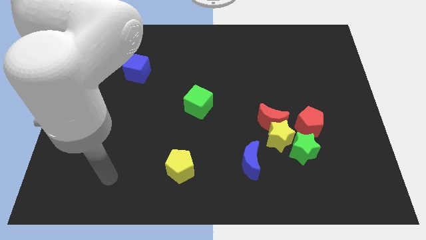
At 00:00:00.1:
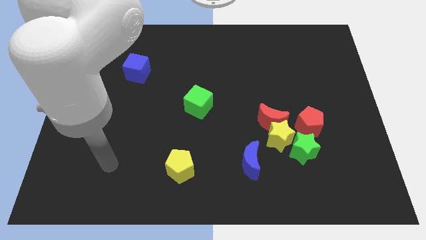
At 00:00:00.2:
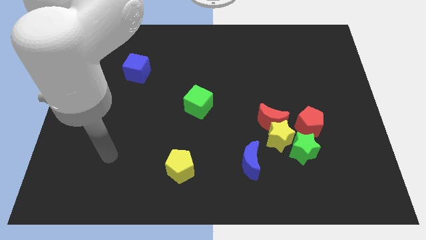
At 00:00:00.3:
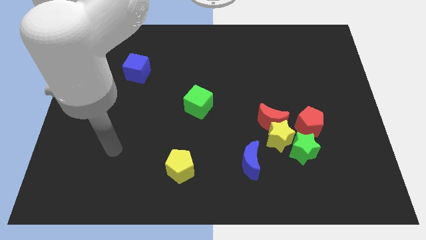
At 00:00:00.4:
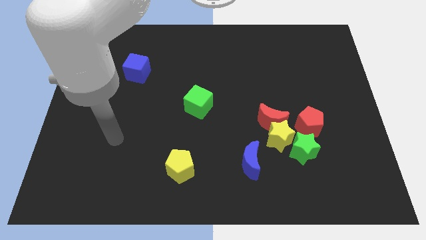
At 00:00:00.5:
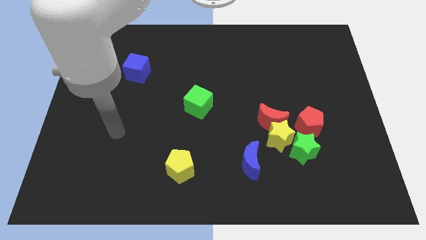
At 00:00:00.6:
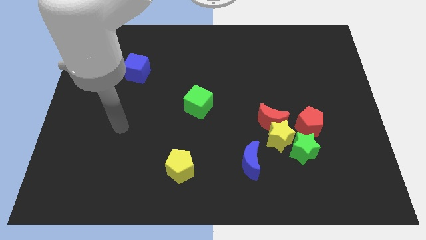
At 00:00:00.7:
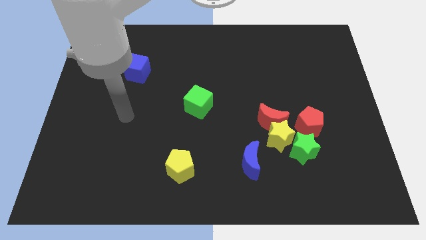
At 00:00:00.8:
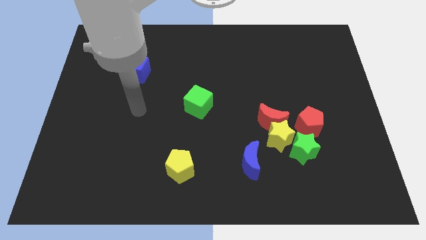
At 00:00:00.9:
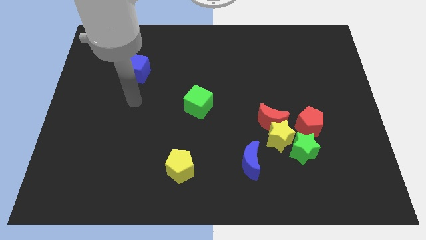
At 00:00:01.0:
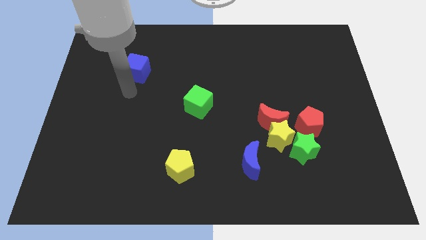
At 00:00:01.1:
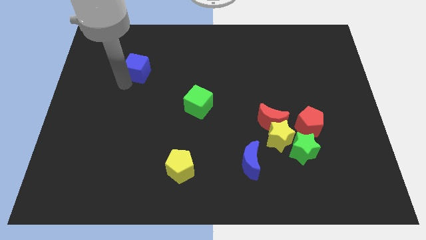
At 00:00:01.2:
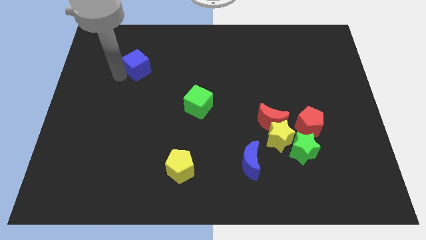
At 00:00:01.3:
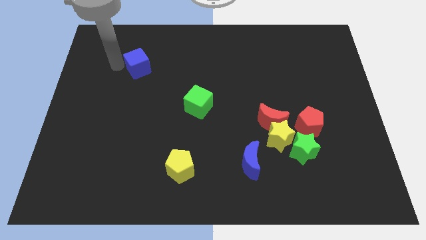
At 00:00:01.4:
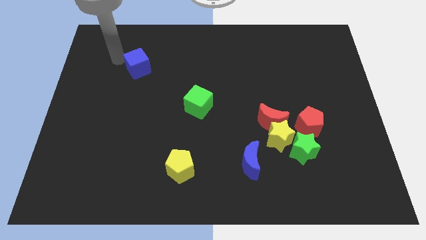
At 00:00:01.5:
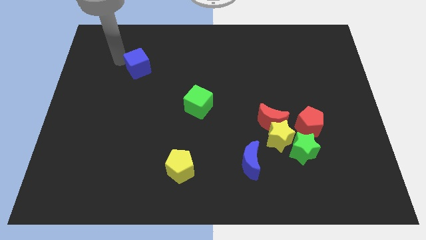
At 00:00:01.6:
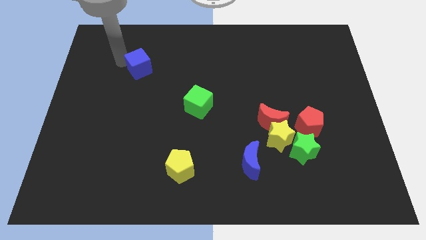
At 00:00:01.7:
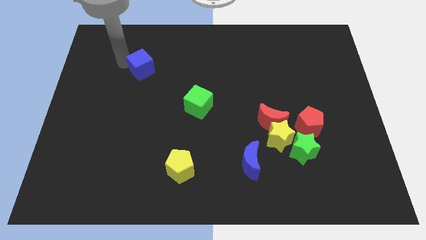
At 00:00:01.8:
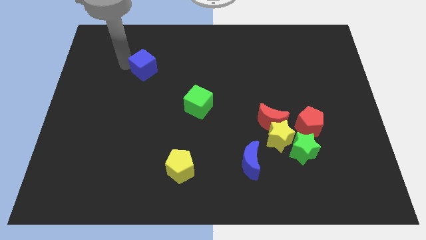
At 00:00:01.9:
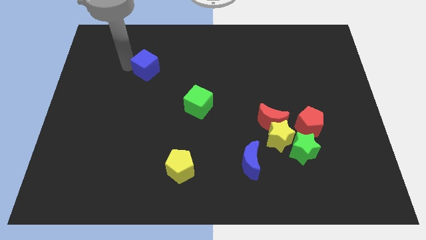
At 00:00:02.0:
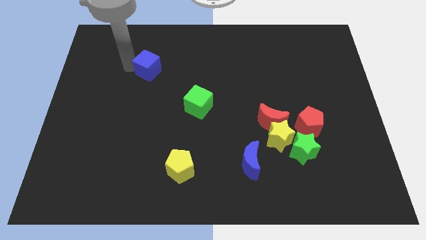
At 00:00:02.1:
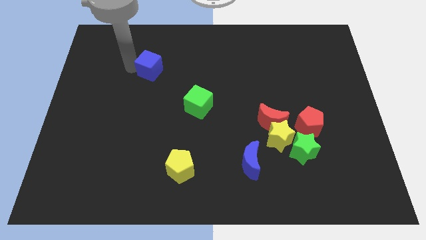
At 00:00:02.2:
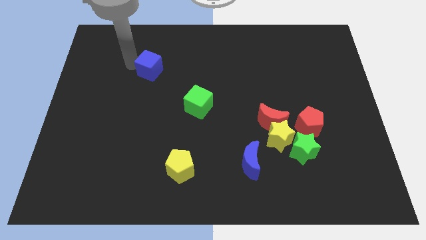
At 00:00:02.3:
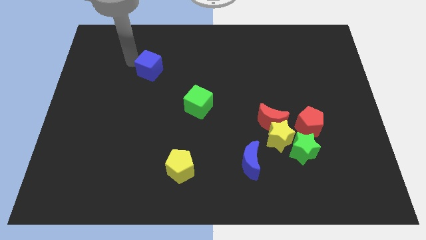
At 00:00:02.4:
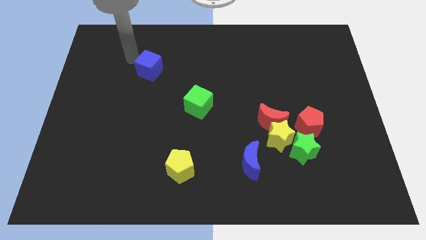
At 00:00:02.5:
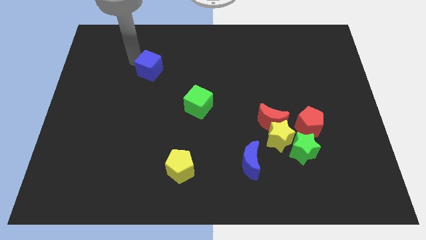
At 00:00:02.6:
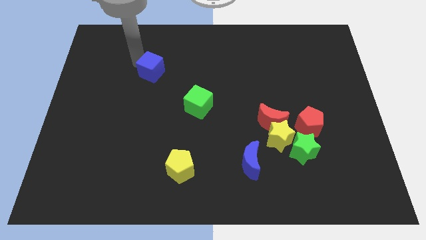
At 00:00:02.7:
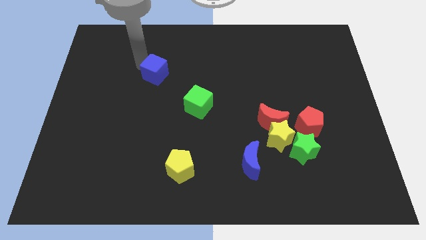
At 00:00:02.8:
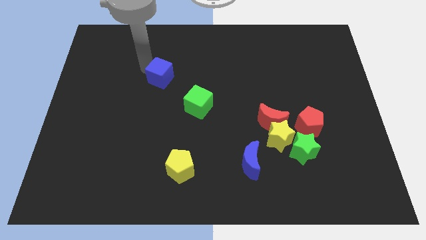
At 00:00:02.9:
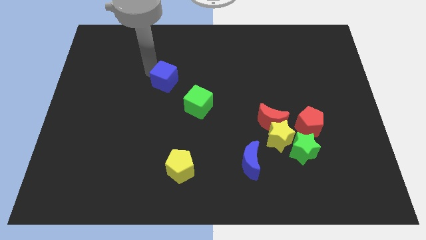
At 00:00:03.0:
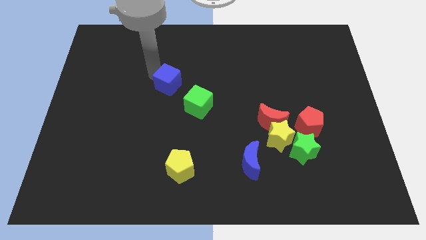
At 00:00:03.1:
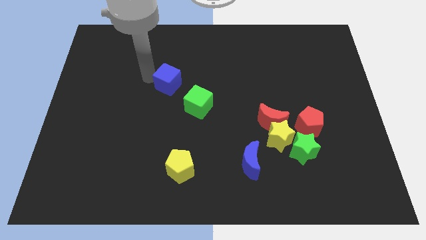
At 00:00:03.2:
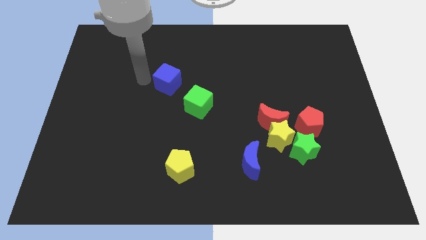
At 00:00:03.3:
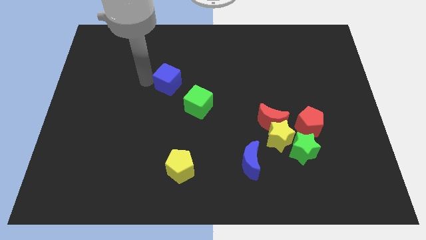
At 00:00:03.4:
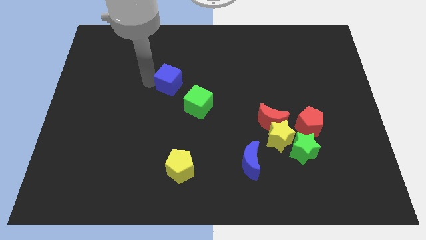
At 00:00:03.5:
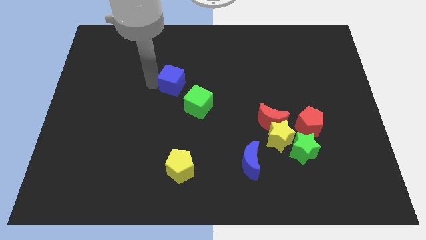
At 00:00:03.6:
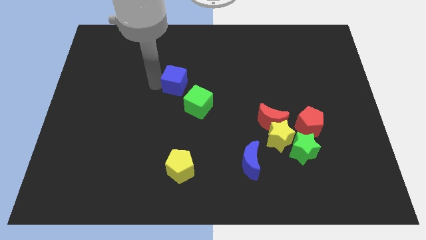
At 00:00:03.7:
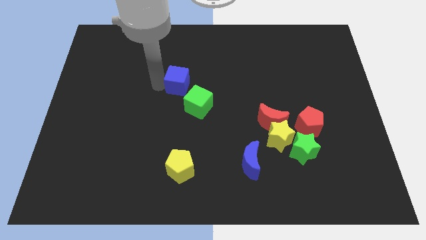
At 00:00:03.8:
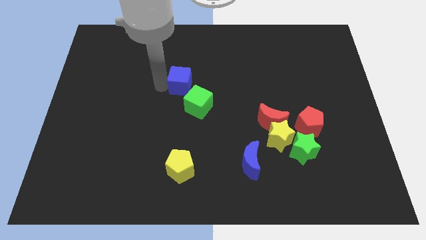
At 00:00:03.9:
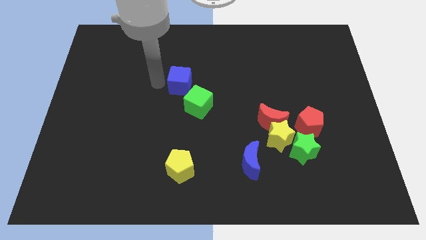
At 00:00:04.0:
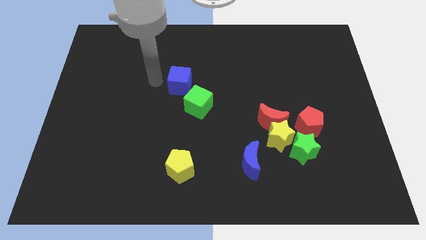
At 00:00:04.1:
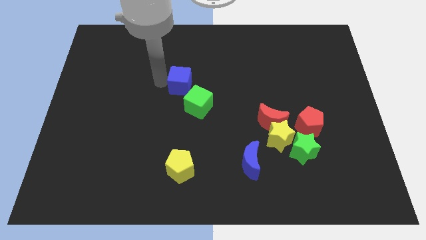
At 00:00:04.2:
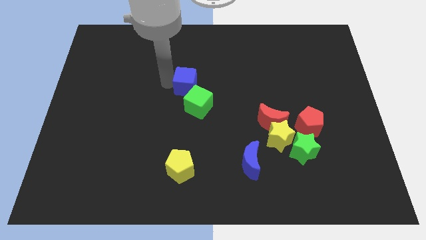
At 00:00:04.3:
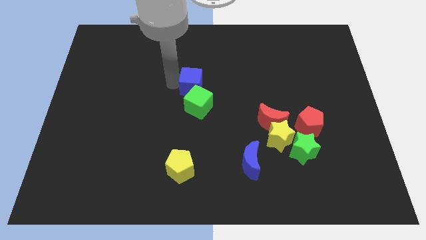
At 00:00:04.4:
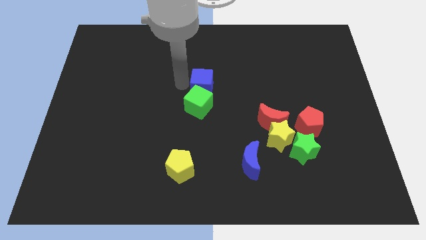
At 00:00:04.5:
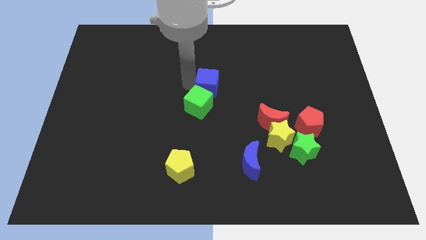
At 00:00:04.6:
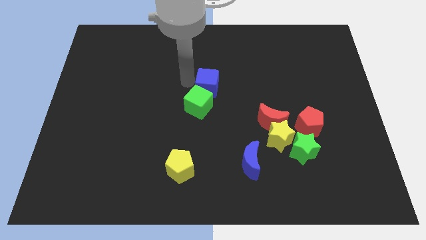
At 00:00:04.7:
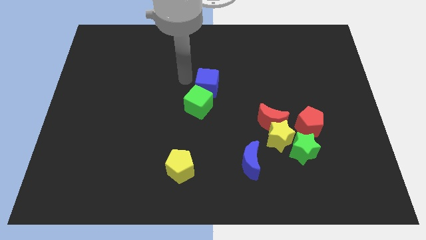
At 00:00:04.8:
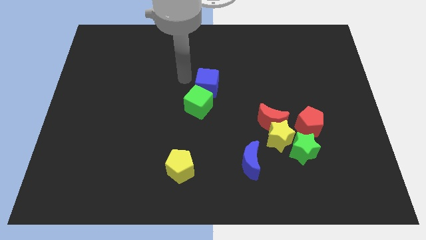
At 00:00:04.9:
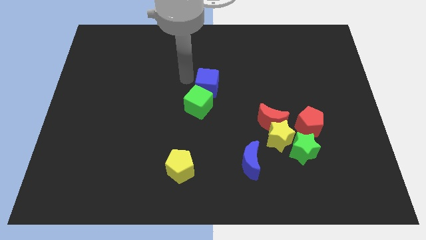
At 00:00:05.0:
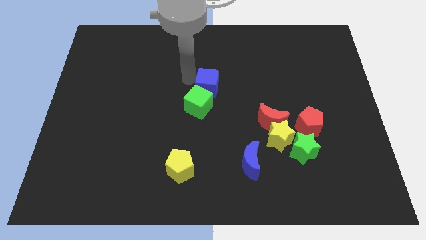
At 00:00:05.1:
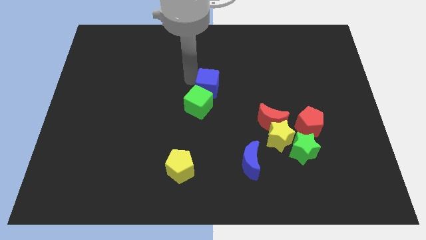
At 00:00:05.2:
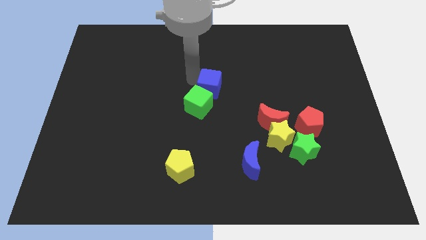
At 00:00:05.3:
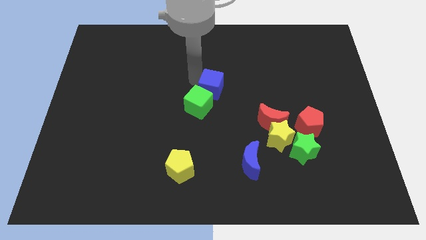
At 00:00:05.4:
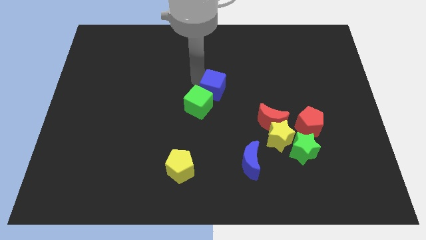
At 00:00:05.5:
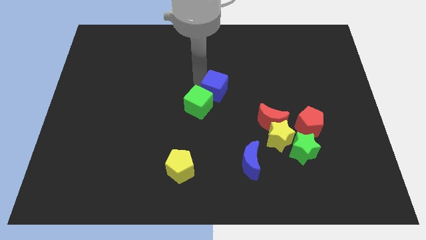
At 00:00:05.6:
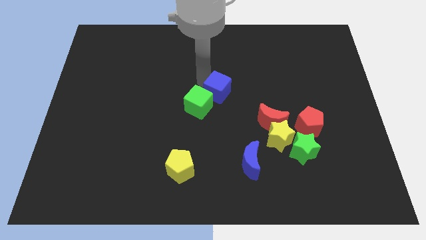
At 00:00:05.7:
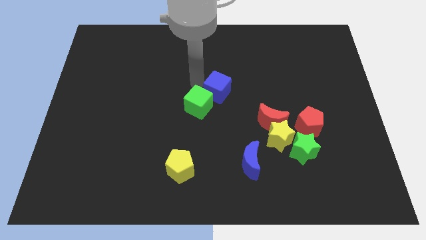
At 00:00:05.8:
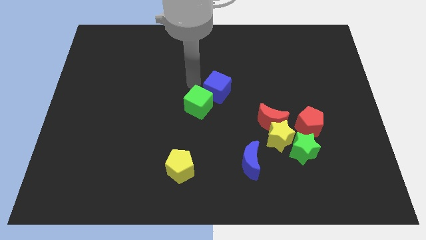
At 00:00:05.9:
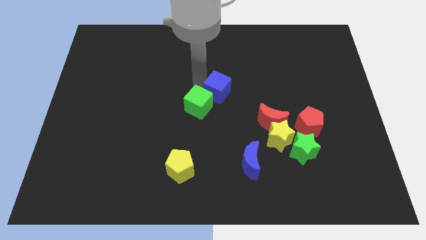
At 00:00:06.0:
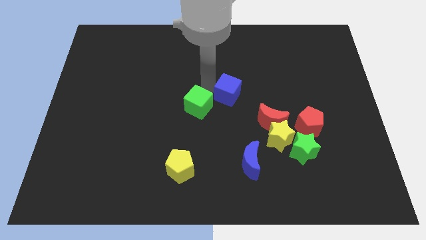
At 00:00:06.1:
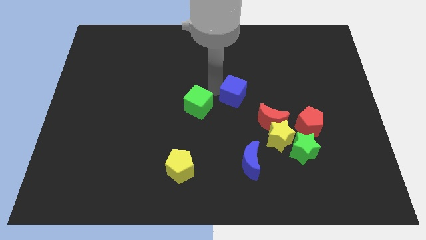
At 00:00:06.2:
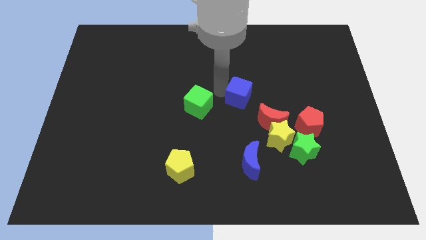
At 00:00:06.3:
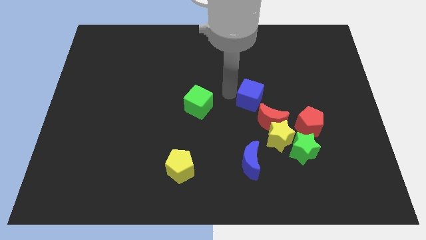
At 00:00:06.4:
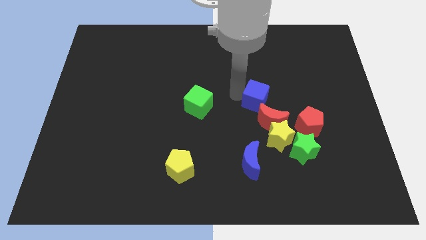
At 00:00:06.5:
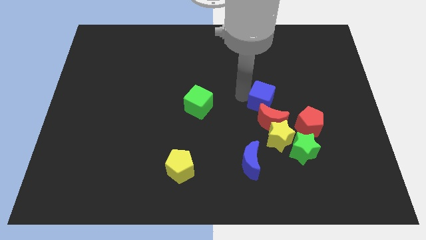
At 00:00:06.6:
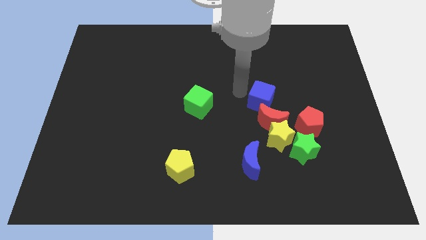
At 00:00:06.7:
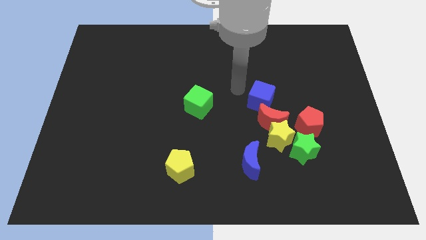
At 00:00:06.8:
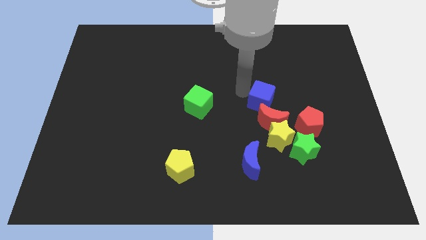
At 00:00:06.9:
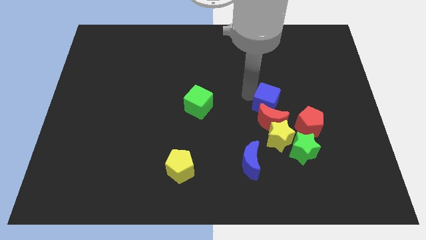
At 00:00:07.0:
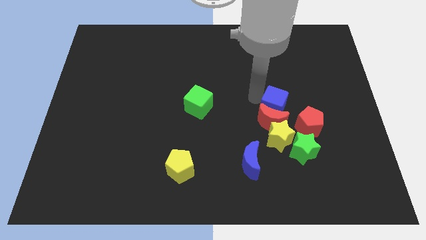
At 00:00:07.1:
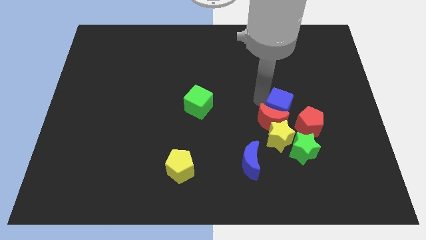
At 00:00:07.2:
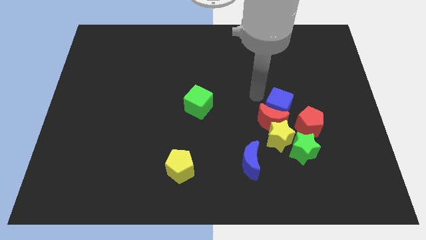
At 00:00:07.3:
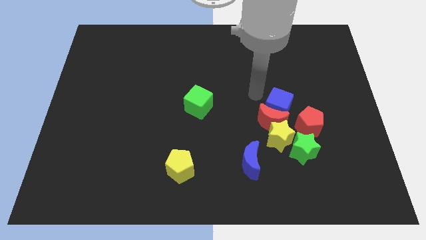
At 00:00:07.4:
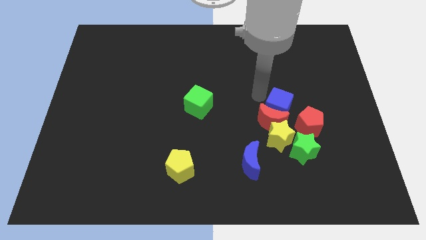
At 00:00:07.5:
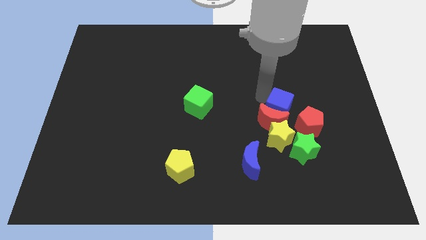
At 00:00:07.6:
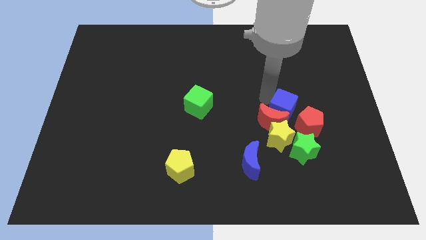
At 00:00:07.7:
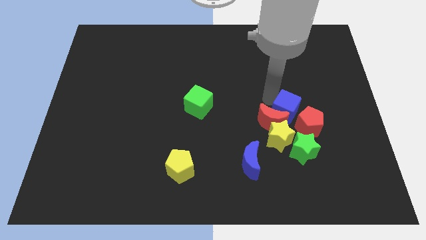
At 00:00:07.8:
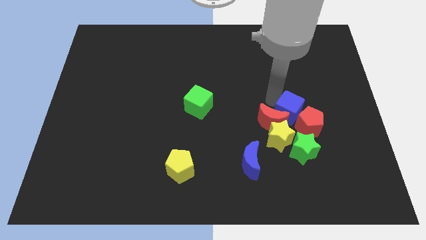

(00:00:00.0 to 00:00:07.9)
push the blue cube next to the red pentagon
